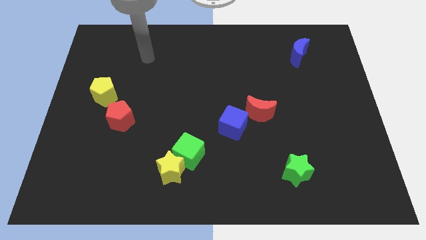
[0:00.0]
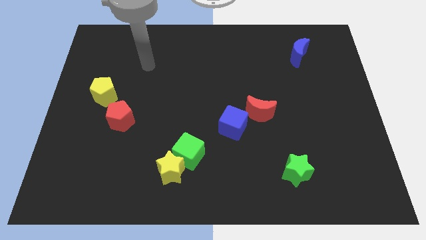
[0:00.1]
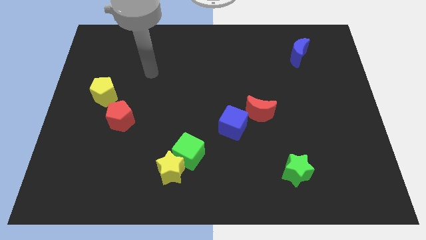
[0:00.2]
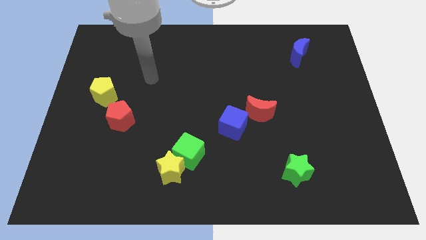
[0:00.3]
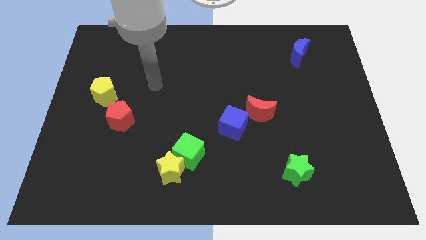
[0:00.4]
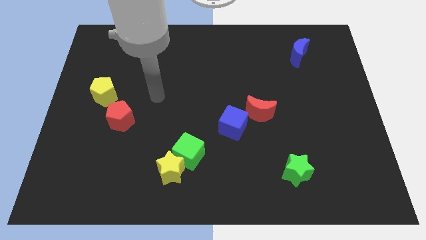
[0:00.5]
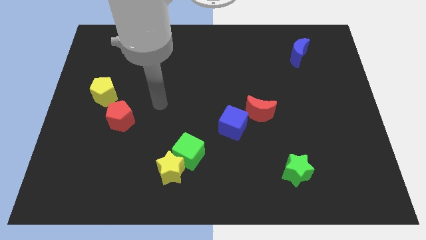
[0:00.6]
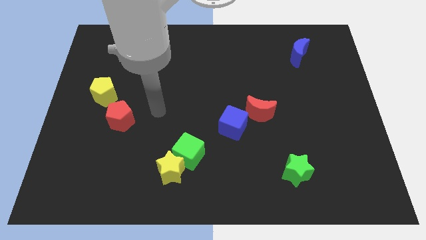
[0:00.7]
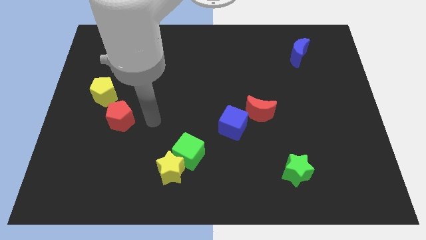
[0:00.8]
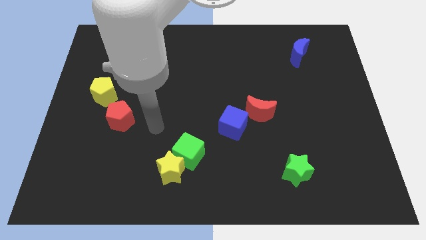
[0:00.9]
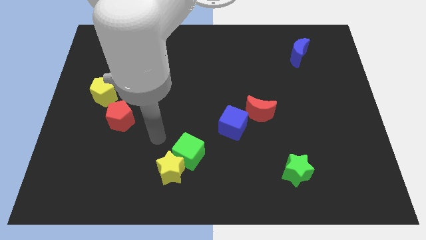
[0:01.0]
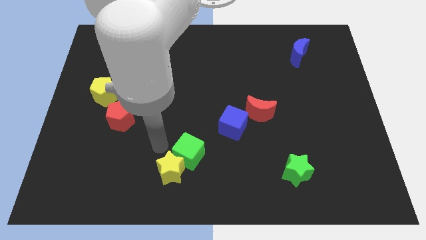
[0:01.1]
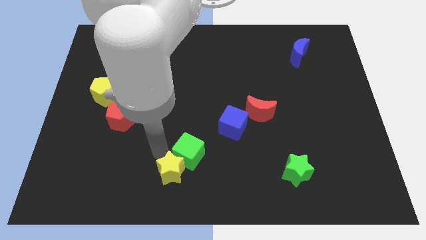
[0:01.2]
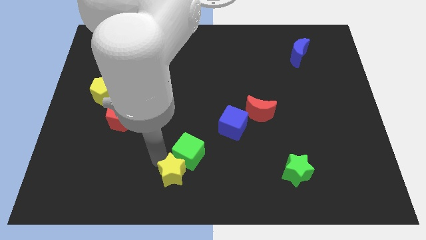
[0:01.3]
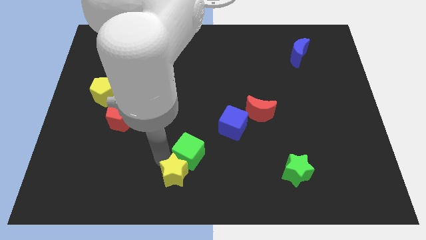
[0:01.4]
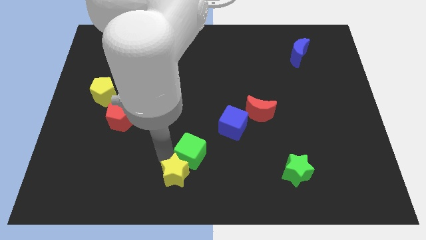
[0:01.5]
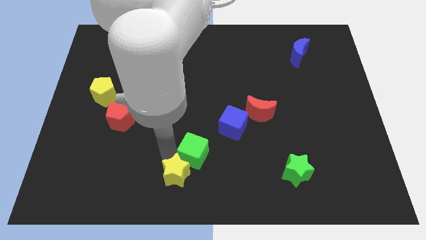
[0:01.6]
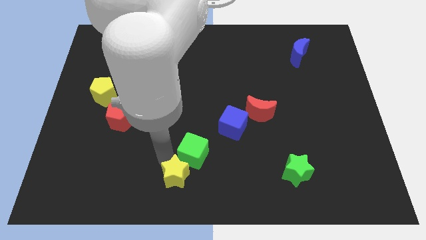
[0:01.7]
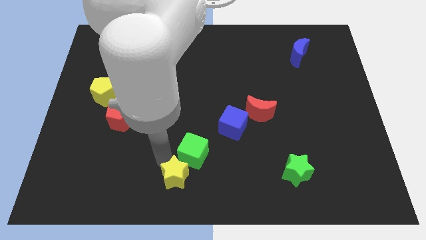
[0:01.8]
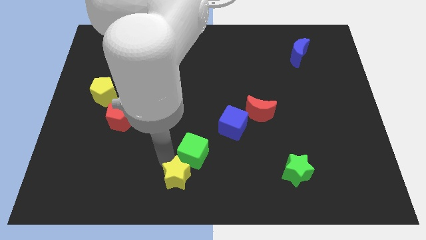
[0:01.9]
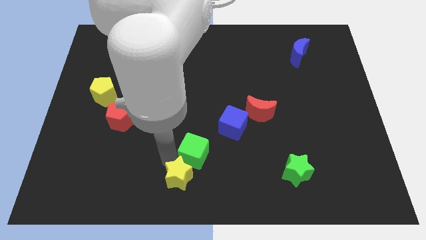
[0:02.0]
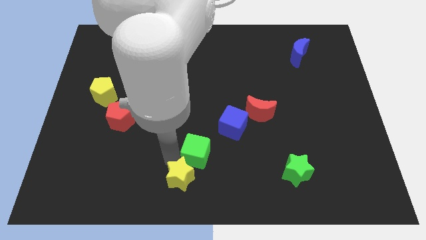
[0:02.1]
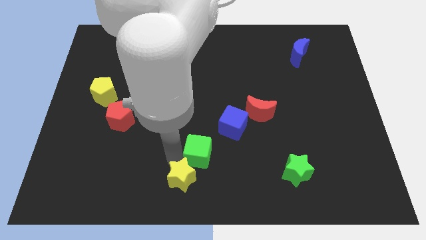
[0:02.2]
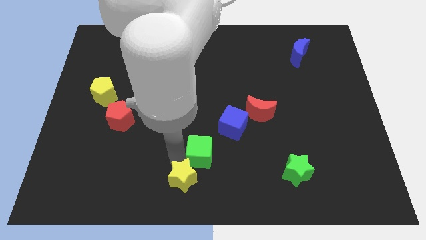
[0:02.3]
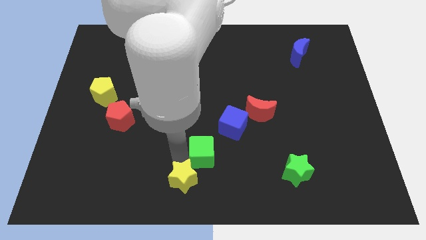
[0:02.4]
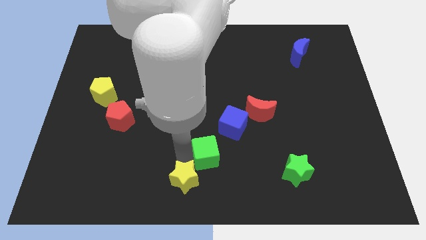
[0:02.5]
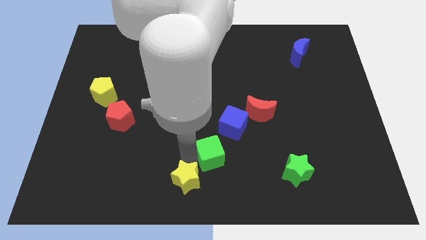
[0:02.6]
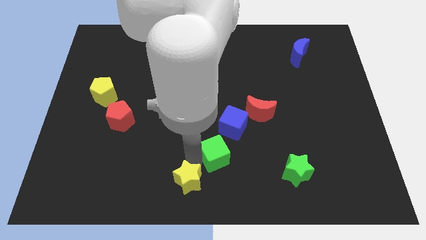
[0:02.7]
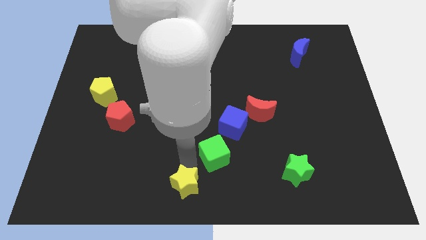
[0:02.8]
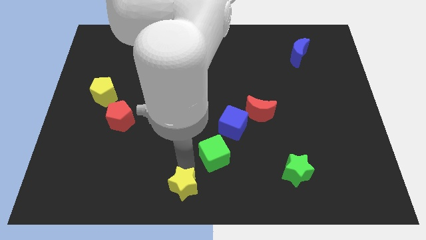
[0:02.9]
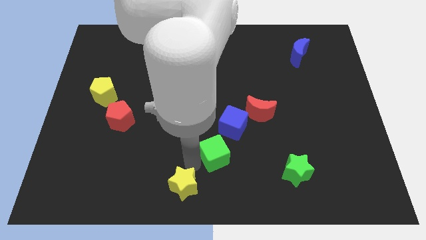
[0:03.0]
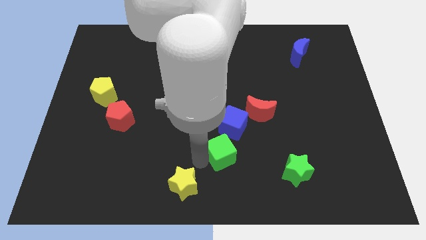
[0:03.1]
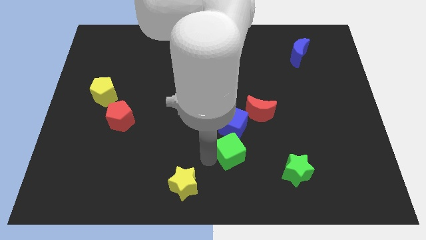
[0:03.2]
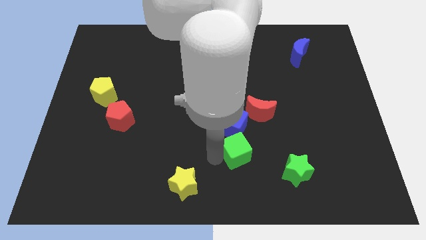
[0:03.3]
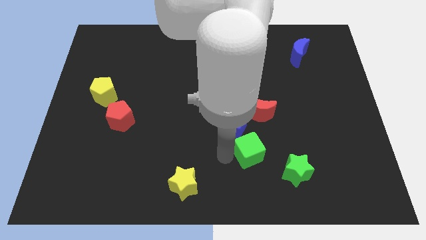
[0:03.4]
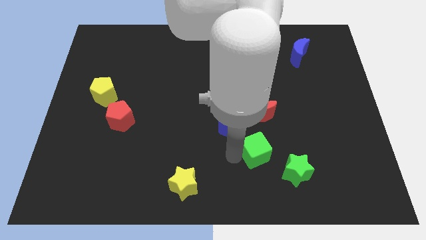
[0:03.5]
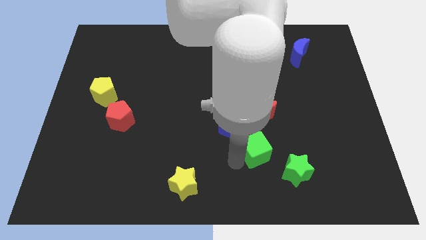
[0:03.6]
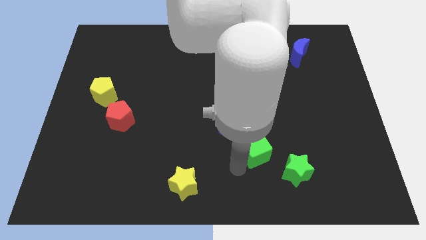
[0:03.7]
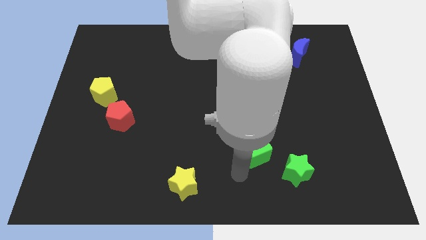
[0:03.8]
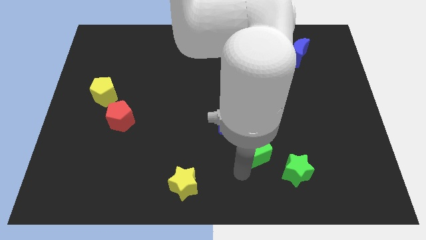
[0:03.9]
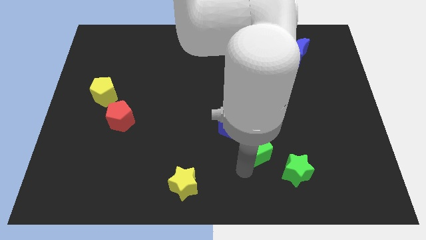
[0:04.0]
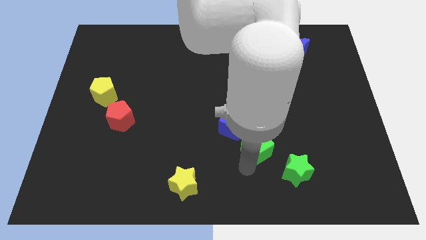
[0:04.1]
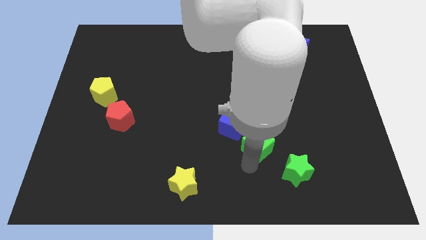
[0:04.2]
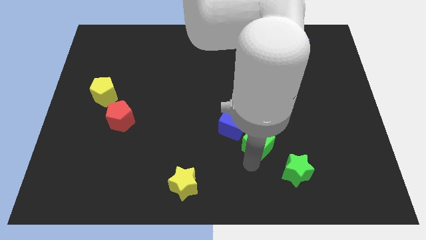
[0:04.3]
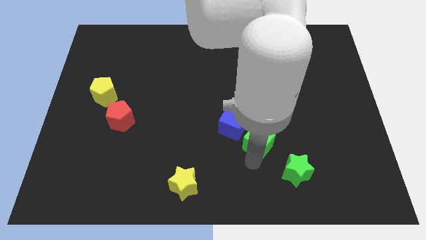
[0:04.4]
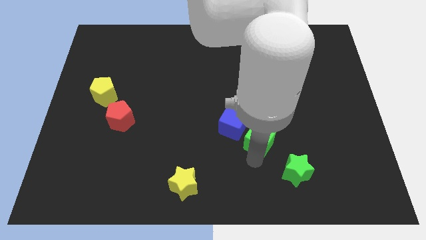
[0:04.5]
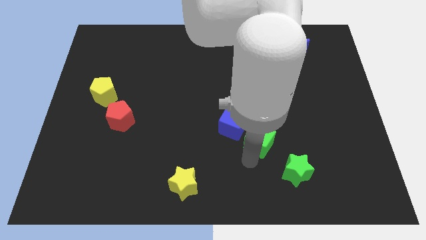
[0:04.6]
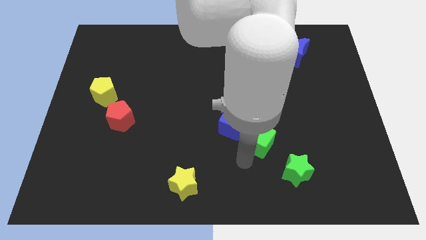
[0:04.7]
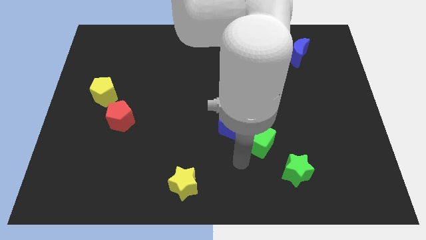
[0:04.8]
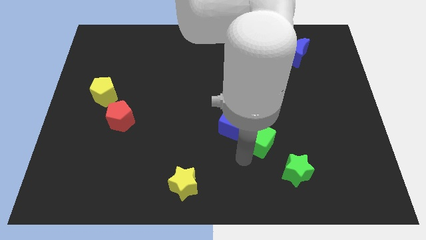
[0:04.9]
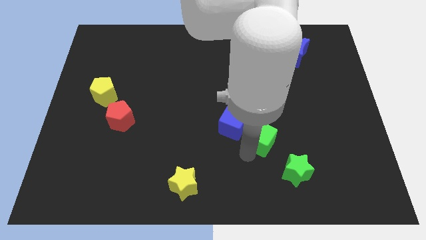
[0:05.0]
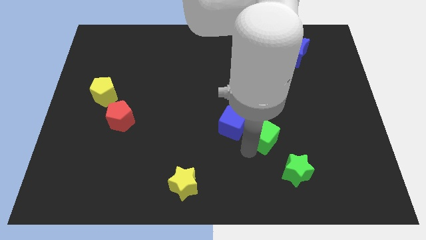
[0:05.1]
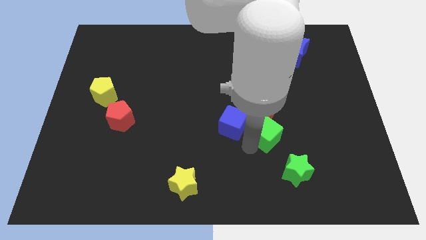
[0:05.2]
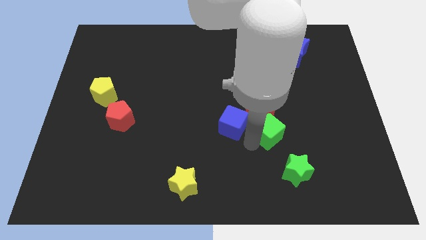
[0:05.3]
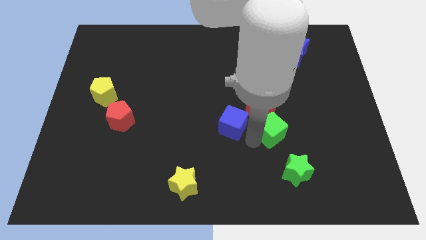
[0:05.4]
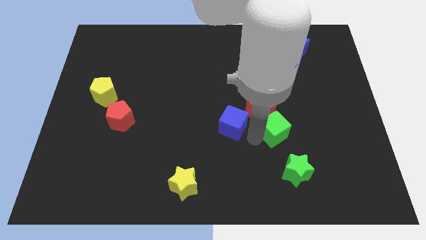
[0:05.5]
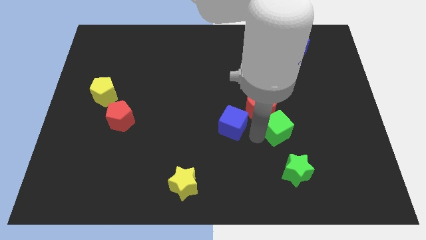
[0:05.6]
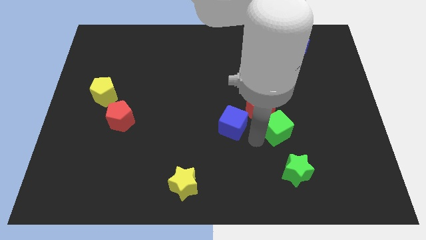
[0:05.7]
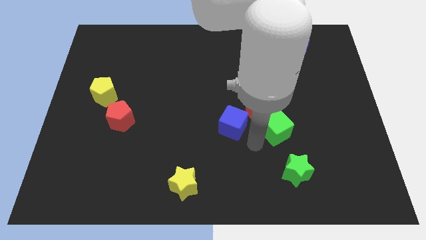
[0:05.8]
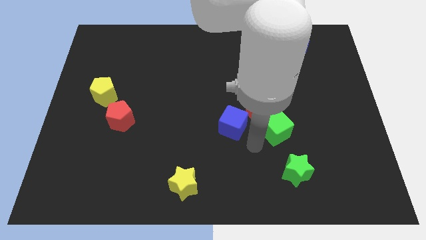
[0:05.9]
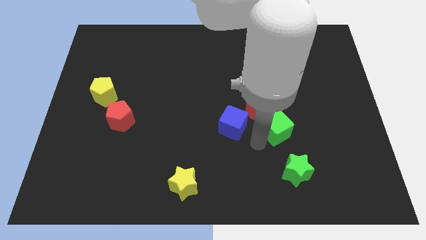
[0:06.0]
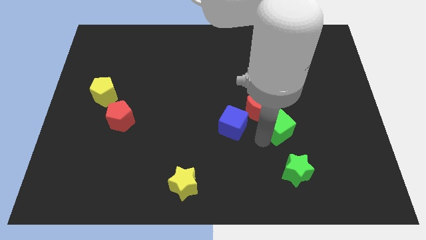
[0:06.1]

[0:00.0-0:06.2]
push the green cube just right of the red moon

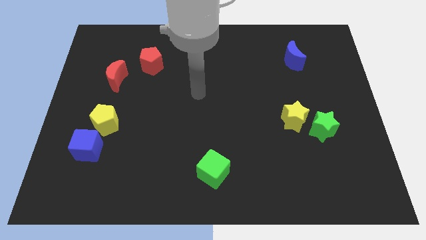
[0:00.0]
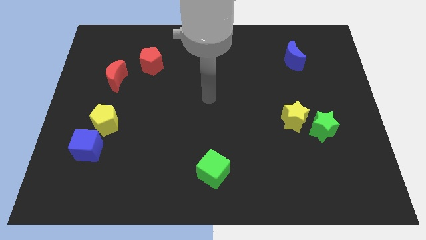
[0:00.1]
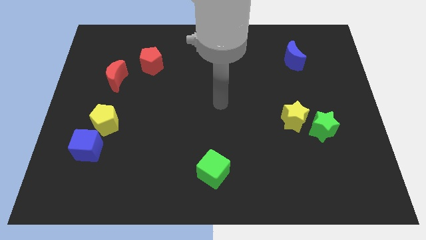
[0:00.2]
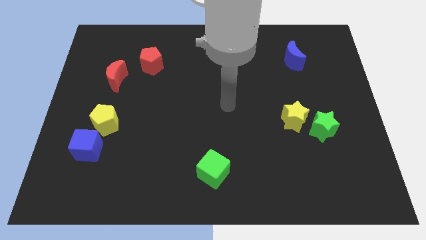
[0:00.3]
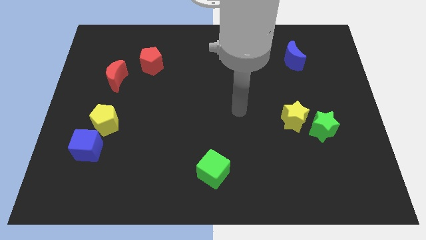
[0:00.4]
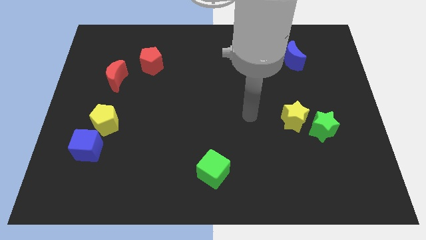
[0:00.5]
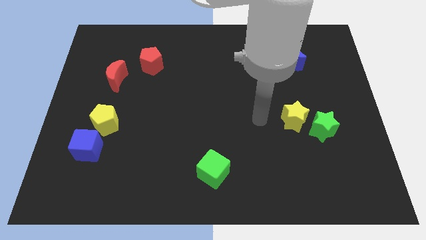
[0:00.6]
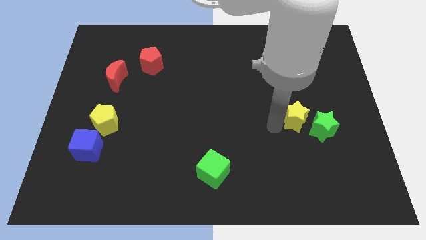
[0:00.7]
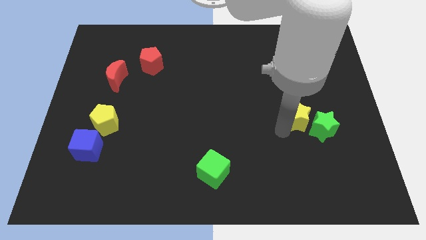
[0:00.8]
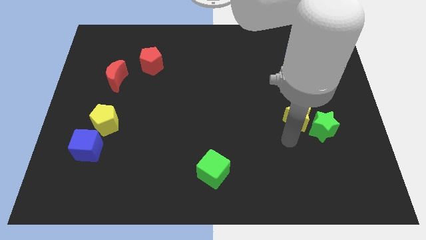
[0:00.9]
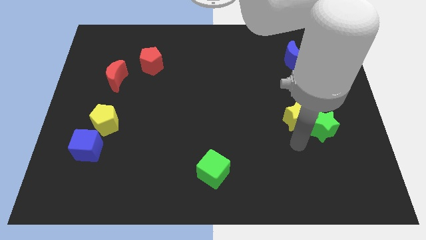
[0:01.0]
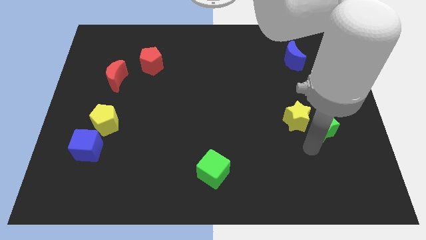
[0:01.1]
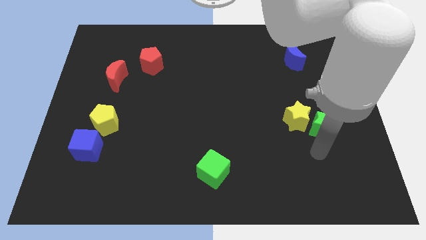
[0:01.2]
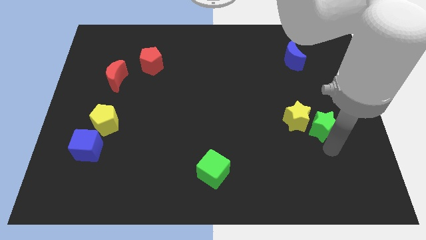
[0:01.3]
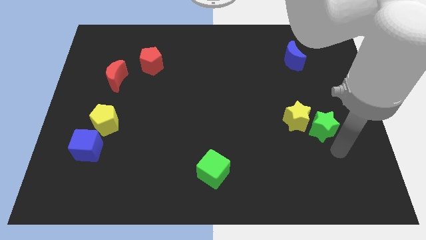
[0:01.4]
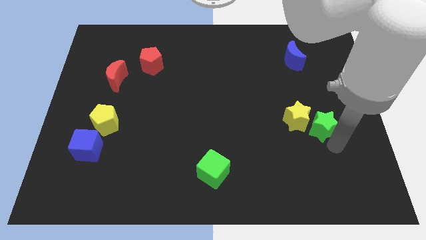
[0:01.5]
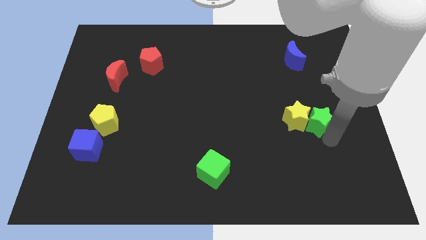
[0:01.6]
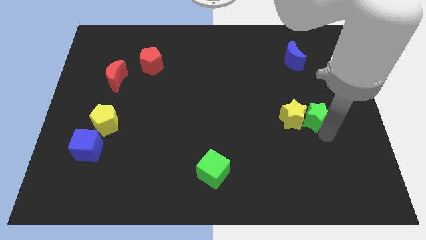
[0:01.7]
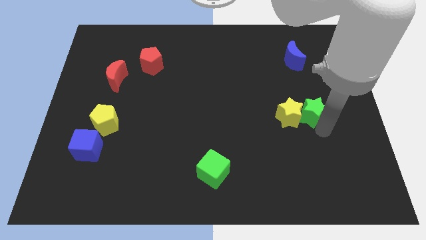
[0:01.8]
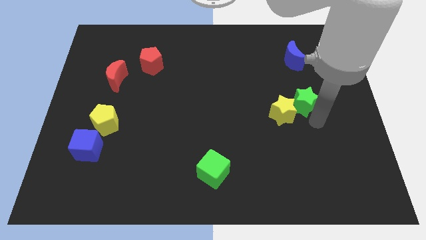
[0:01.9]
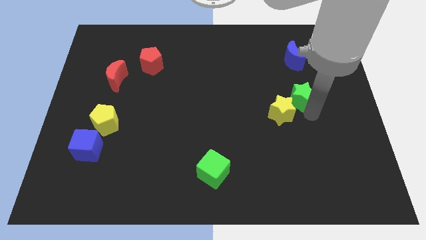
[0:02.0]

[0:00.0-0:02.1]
move the green star to the top of the yellow star
